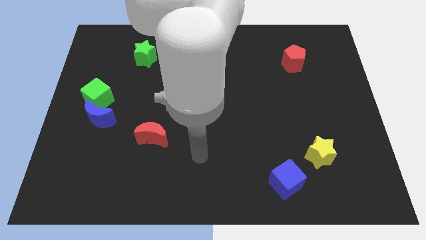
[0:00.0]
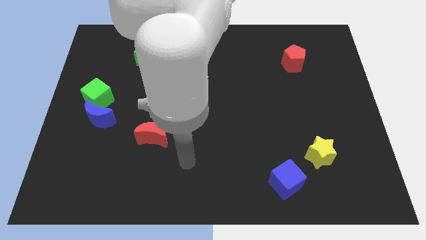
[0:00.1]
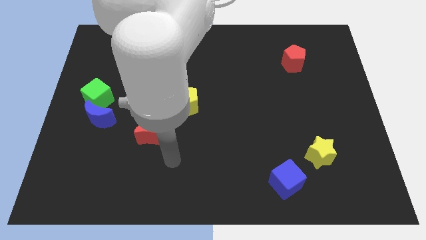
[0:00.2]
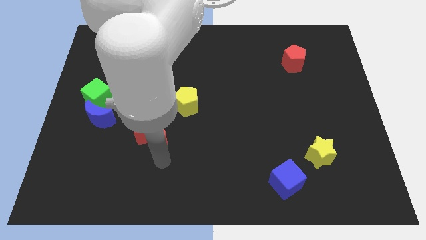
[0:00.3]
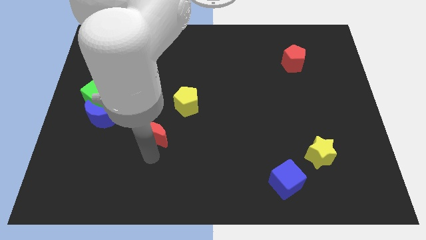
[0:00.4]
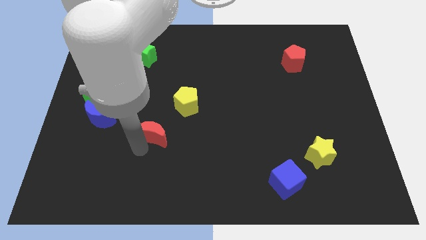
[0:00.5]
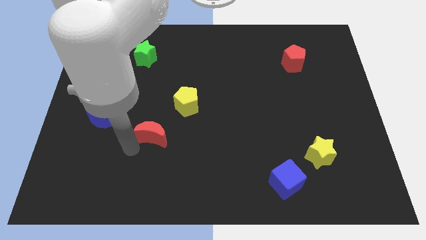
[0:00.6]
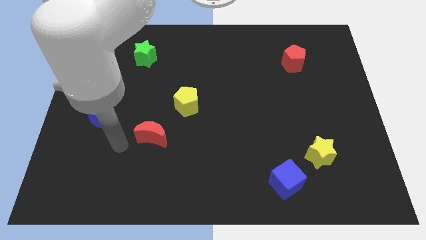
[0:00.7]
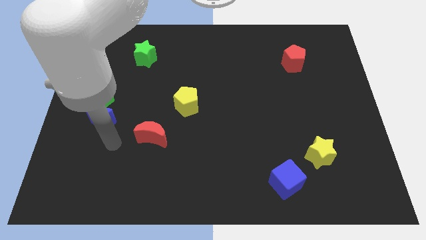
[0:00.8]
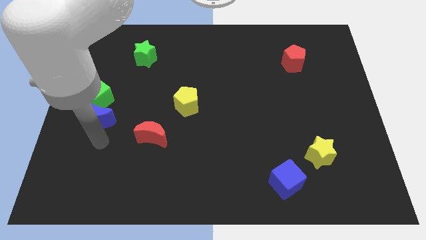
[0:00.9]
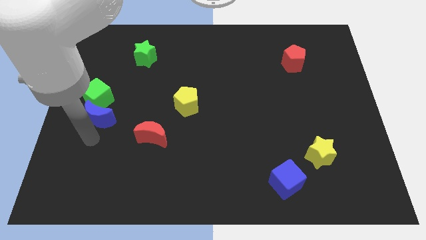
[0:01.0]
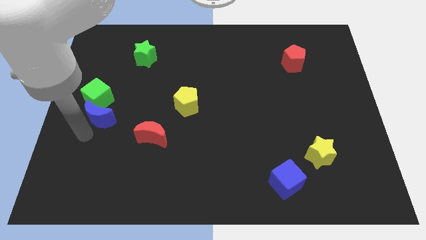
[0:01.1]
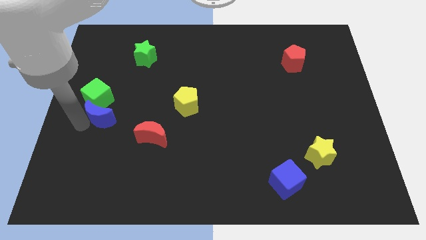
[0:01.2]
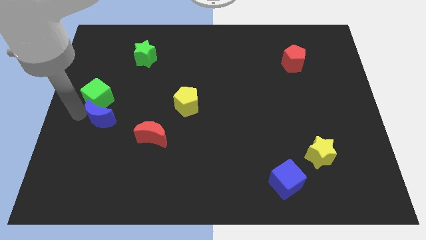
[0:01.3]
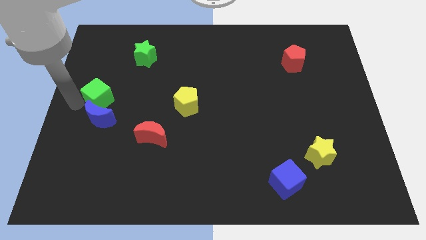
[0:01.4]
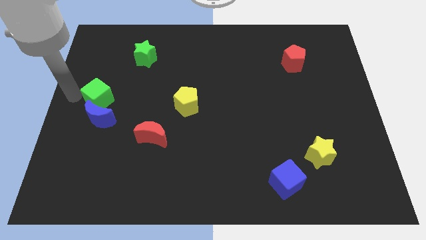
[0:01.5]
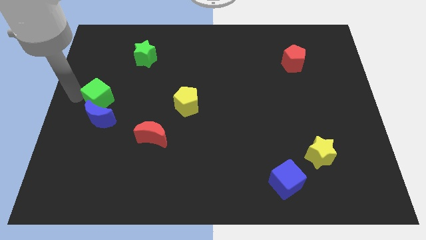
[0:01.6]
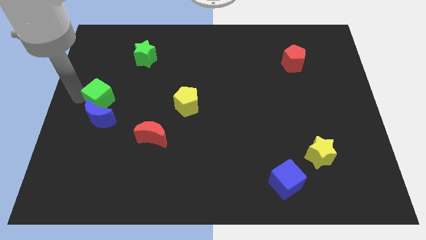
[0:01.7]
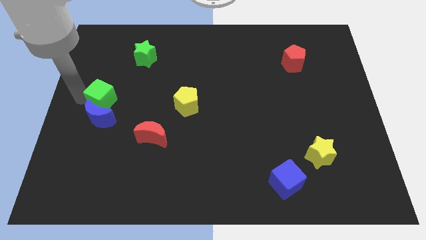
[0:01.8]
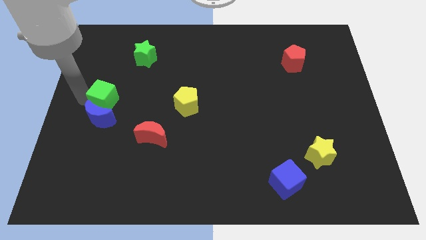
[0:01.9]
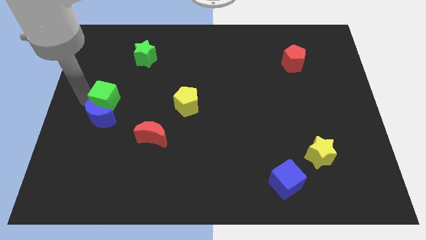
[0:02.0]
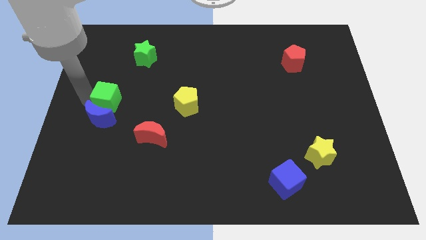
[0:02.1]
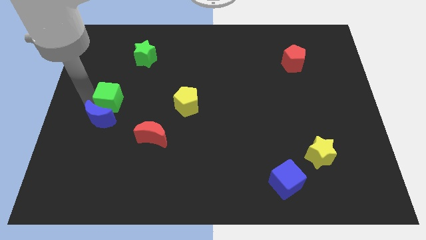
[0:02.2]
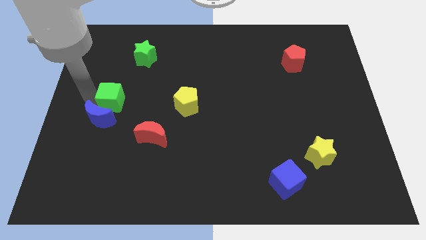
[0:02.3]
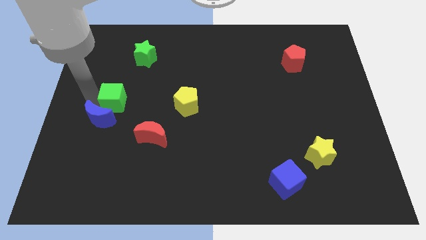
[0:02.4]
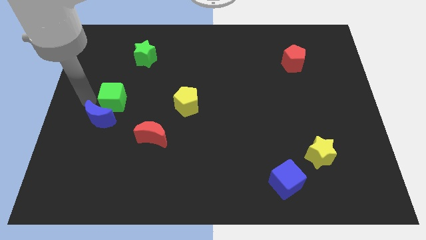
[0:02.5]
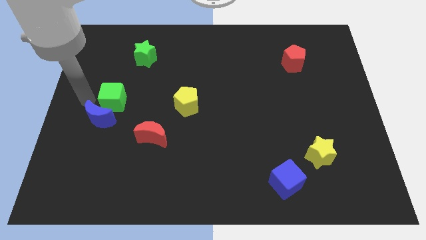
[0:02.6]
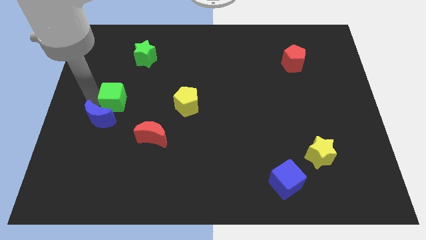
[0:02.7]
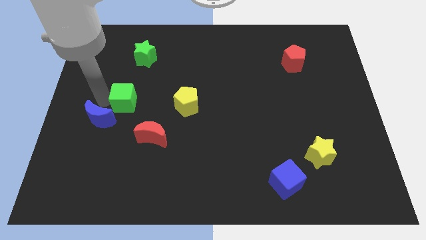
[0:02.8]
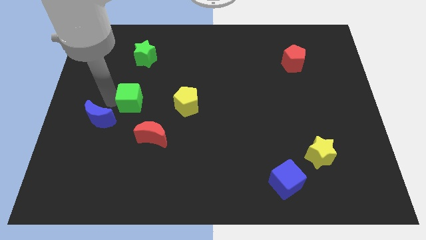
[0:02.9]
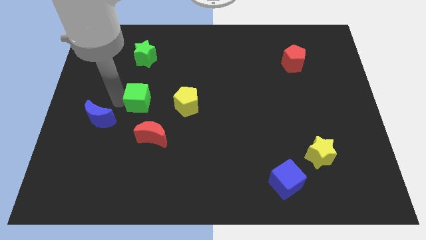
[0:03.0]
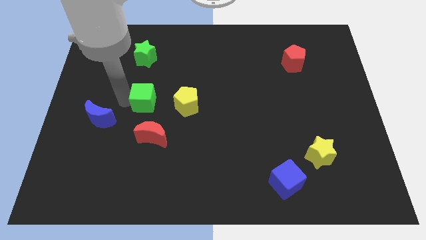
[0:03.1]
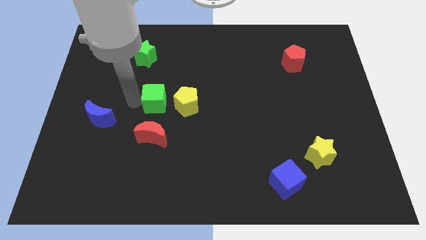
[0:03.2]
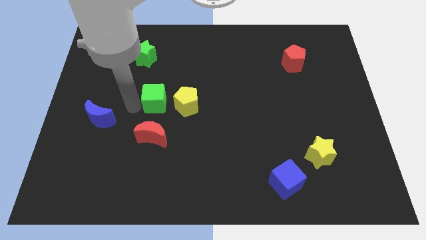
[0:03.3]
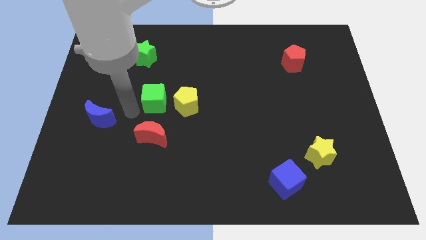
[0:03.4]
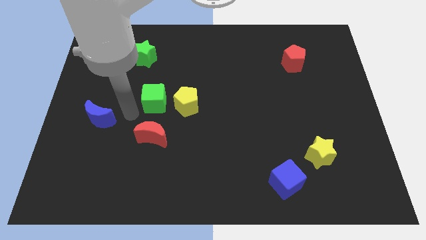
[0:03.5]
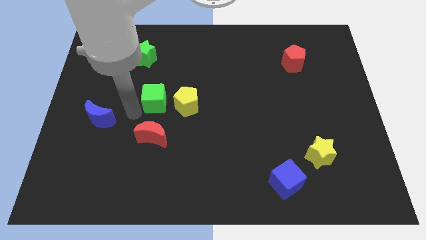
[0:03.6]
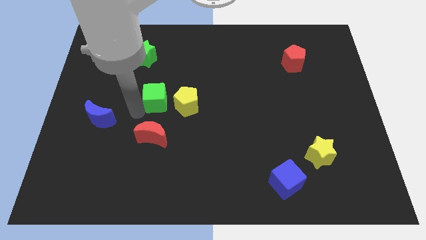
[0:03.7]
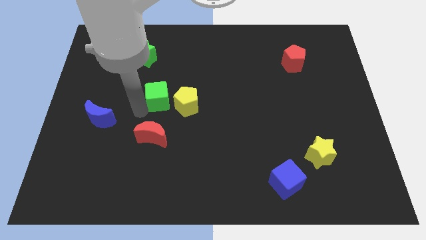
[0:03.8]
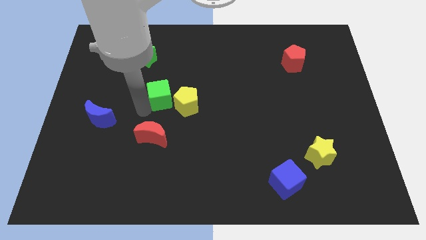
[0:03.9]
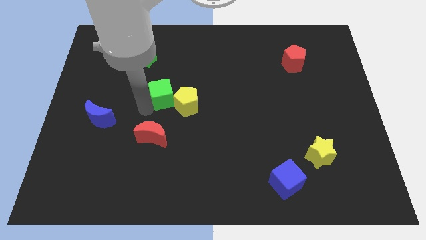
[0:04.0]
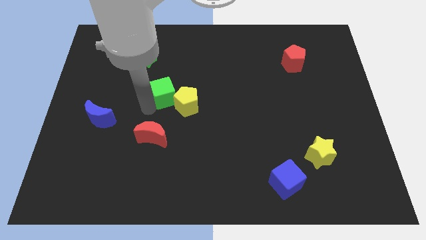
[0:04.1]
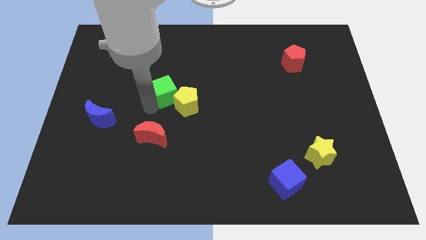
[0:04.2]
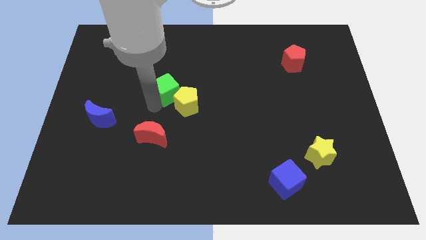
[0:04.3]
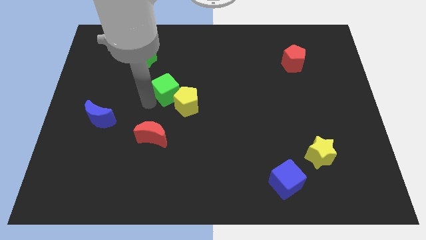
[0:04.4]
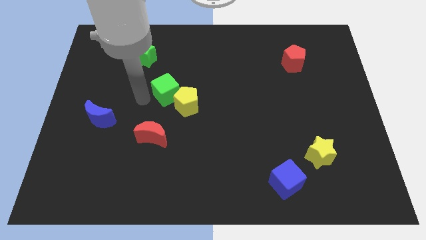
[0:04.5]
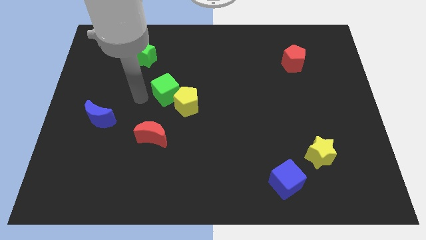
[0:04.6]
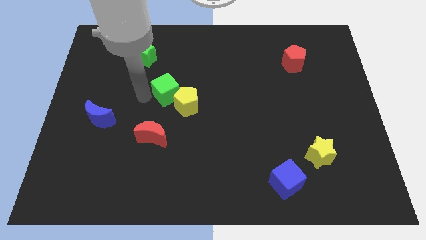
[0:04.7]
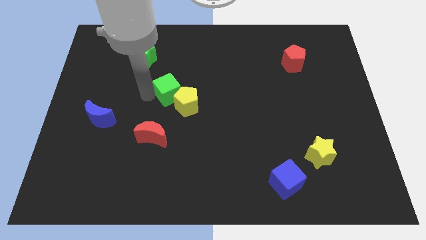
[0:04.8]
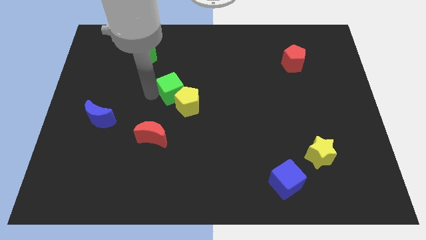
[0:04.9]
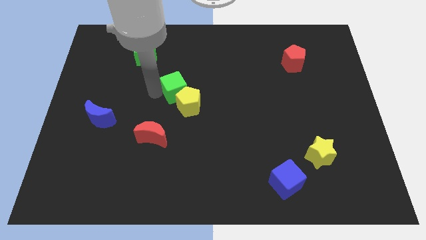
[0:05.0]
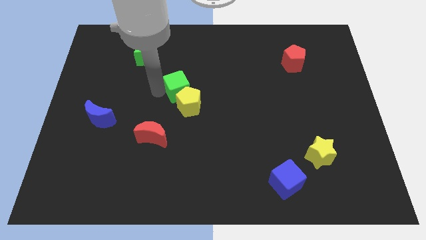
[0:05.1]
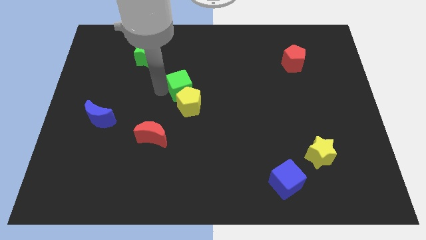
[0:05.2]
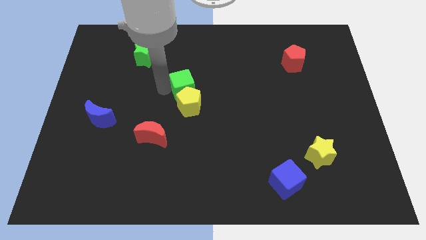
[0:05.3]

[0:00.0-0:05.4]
move the green cube to the right

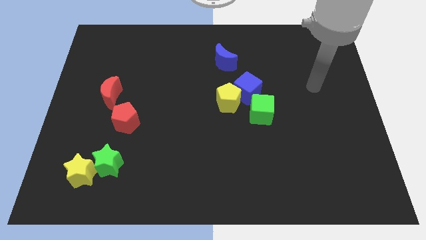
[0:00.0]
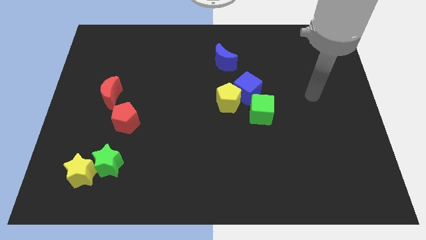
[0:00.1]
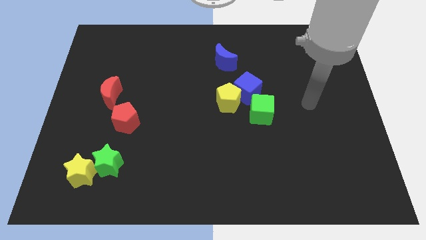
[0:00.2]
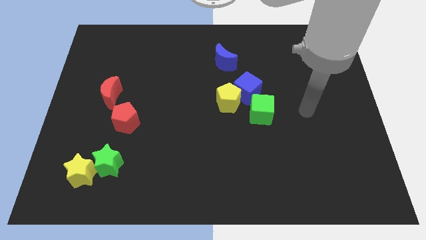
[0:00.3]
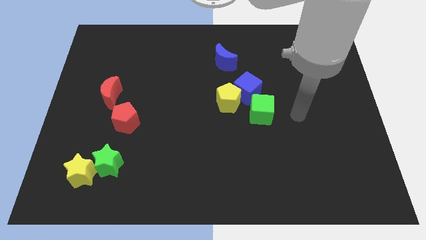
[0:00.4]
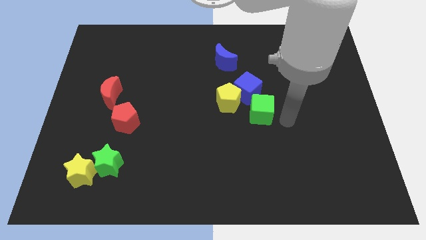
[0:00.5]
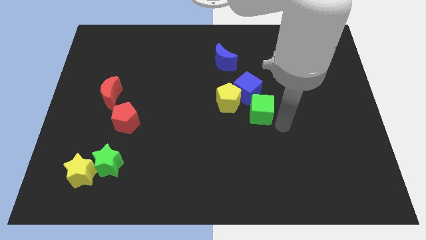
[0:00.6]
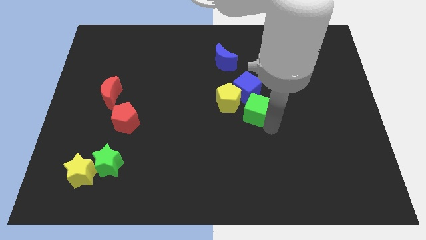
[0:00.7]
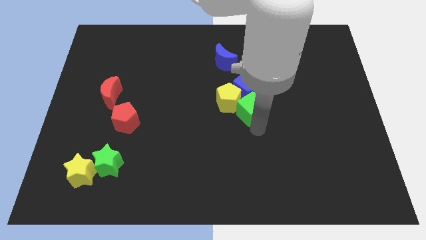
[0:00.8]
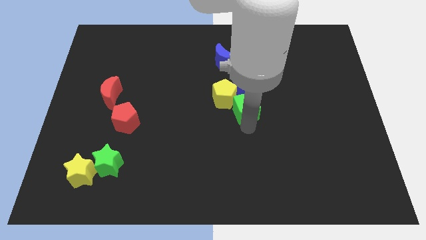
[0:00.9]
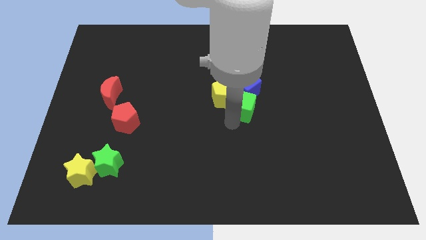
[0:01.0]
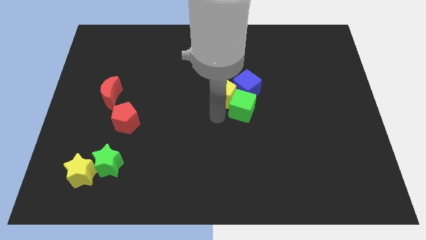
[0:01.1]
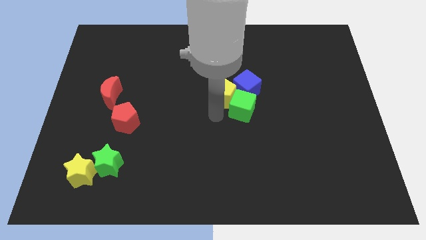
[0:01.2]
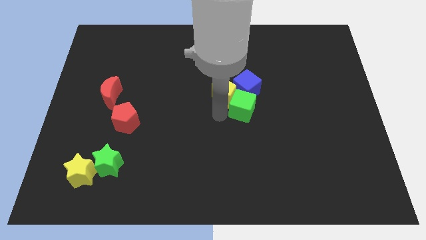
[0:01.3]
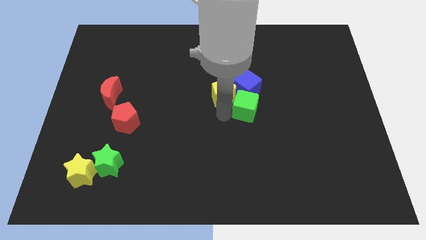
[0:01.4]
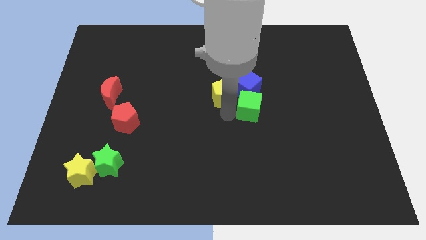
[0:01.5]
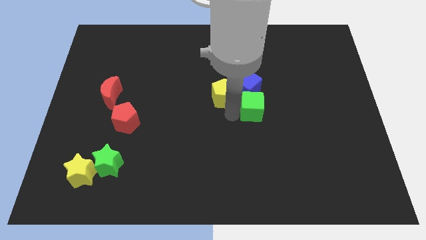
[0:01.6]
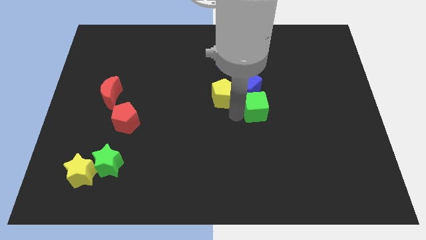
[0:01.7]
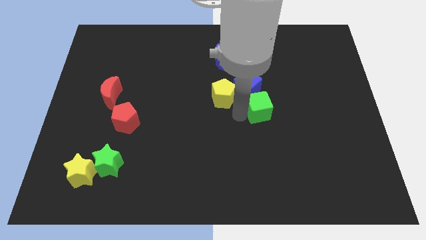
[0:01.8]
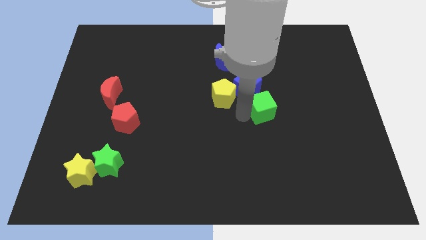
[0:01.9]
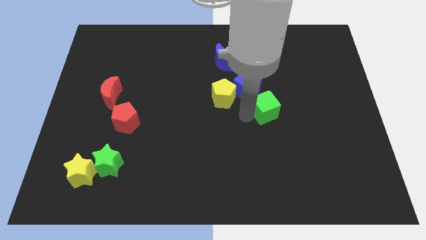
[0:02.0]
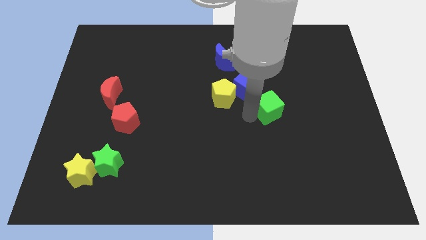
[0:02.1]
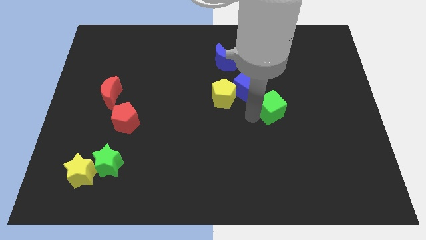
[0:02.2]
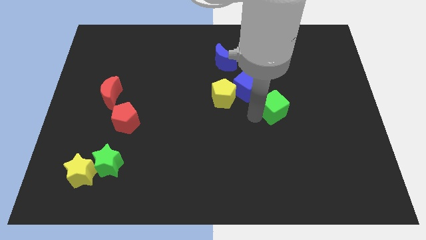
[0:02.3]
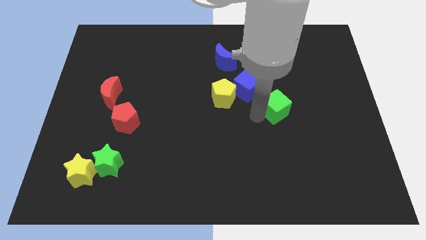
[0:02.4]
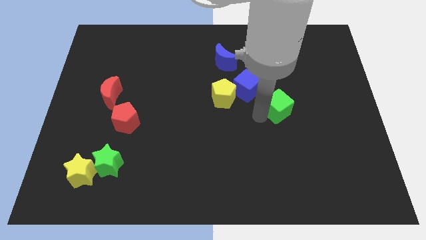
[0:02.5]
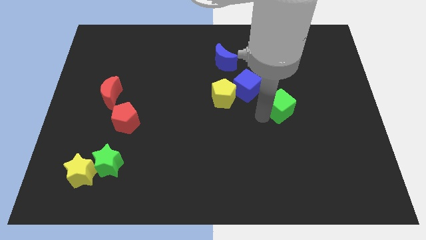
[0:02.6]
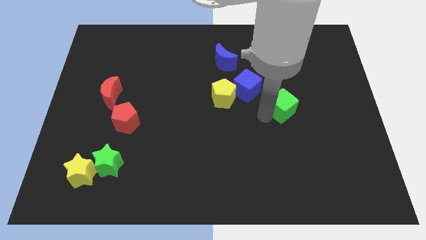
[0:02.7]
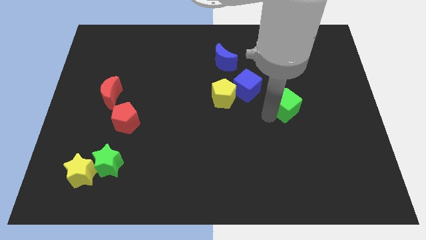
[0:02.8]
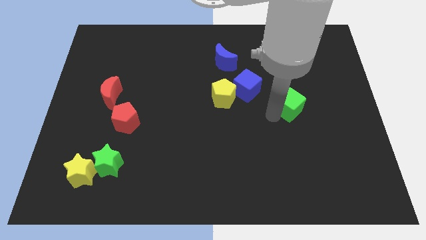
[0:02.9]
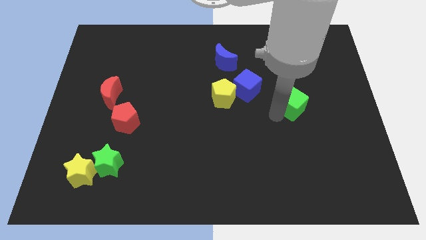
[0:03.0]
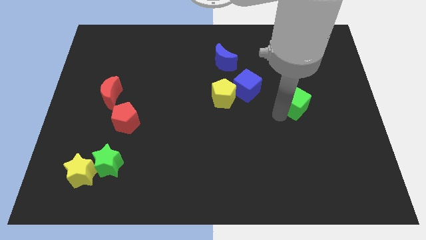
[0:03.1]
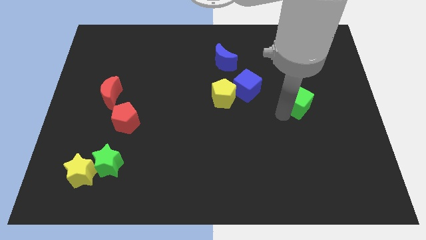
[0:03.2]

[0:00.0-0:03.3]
move the green cube up and to the right diagonally somewhat
